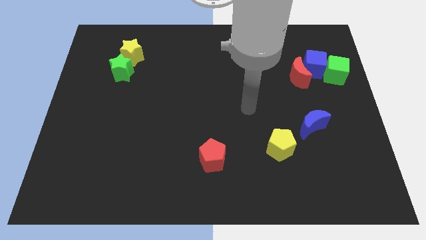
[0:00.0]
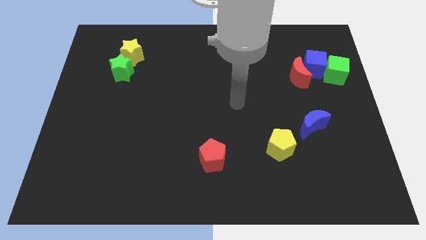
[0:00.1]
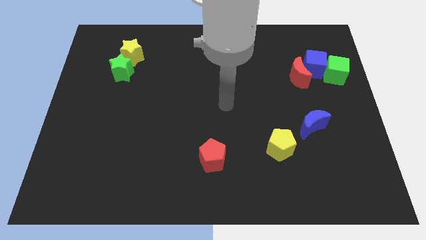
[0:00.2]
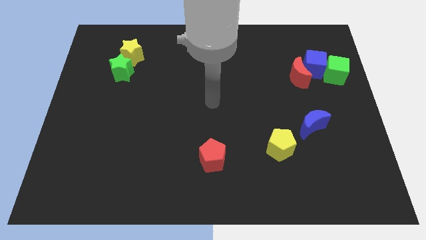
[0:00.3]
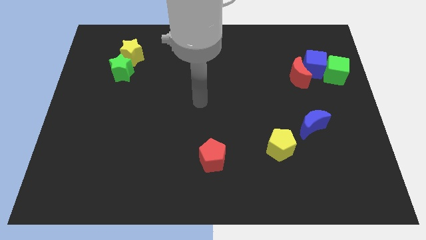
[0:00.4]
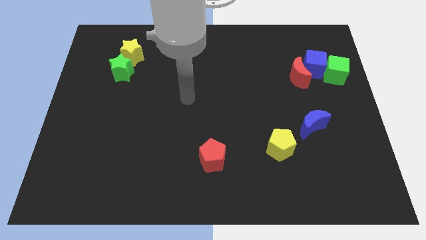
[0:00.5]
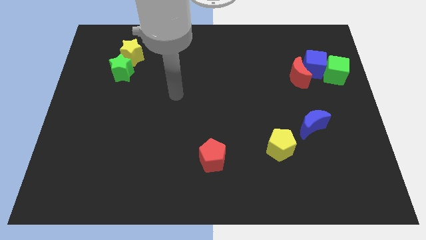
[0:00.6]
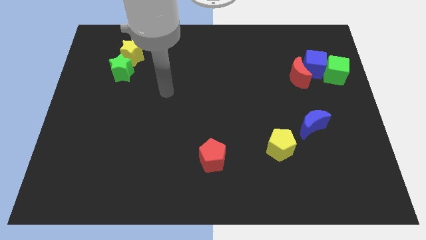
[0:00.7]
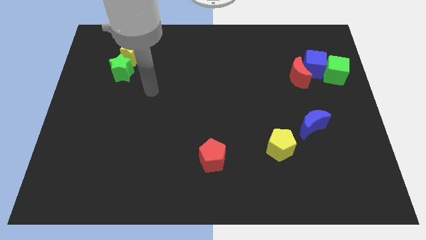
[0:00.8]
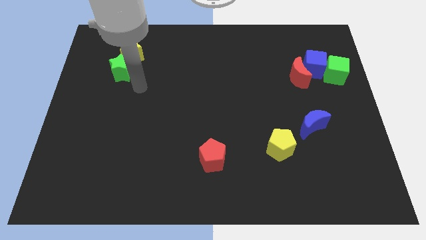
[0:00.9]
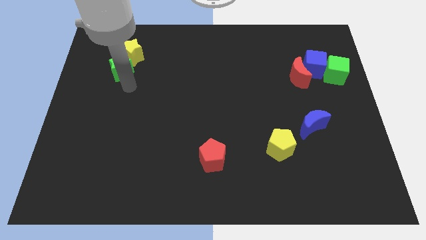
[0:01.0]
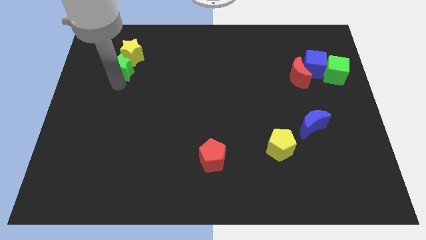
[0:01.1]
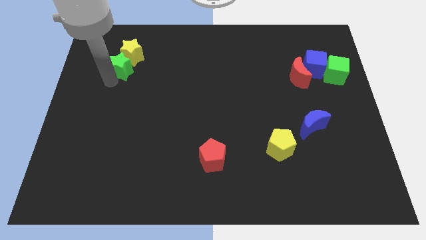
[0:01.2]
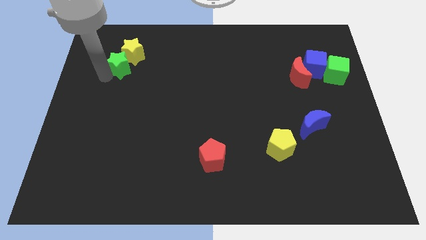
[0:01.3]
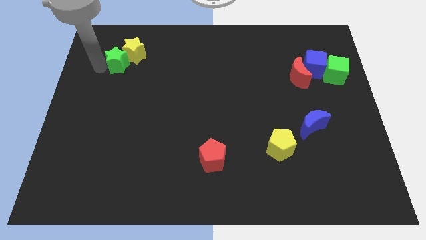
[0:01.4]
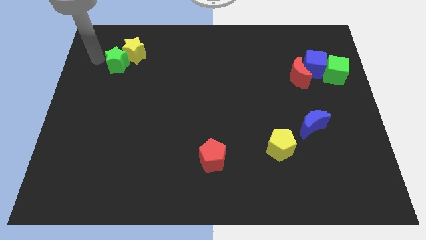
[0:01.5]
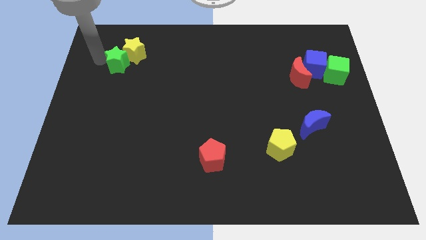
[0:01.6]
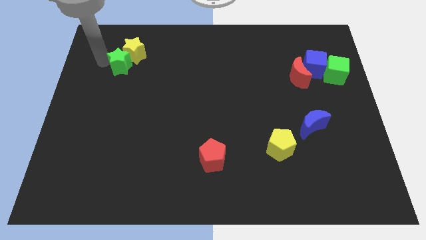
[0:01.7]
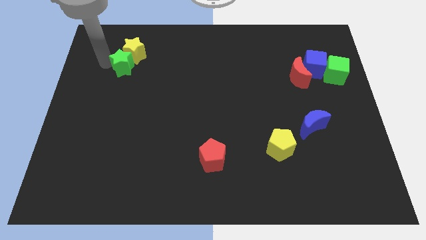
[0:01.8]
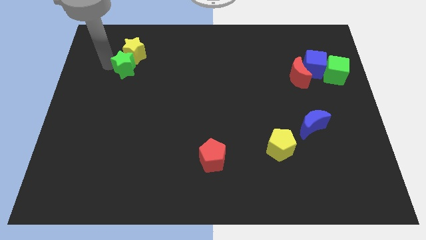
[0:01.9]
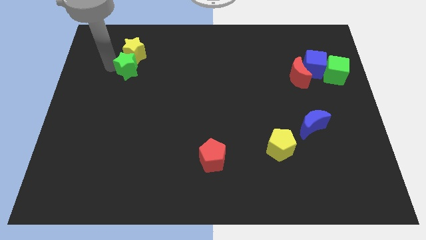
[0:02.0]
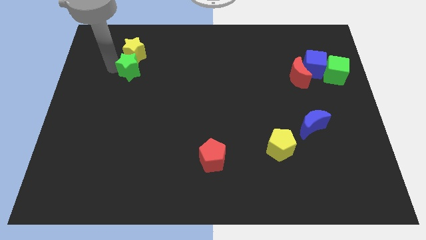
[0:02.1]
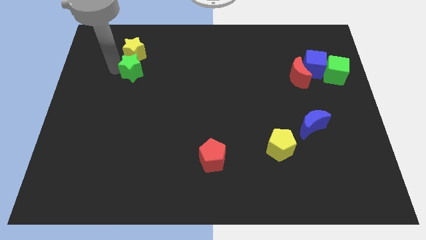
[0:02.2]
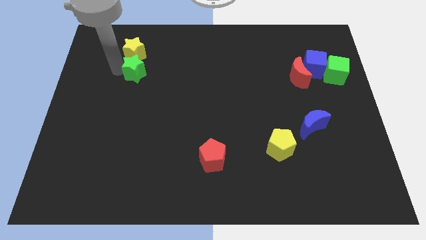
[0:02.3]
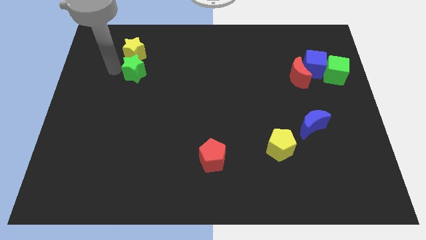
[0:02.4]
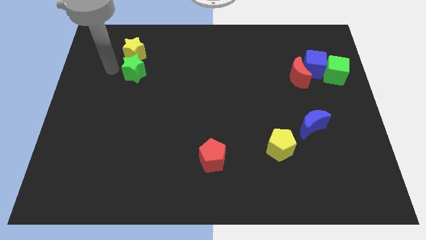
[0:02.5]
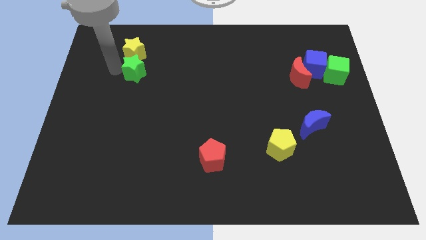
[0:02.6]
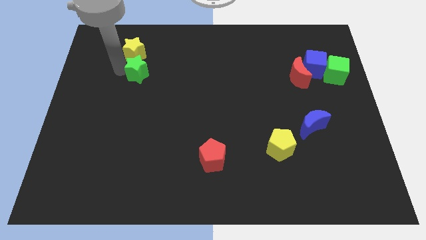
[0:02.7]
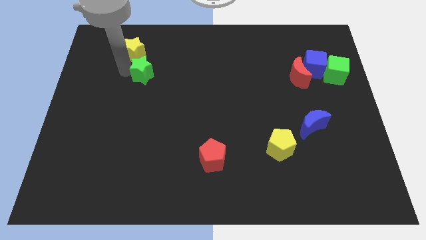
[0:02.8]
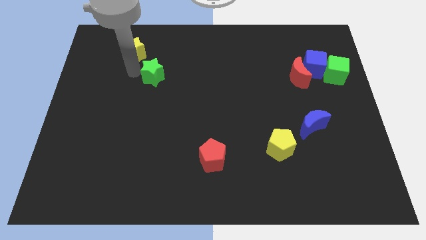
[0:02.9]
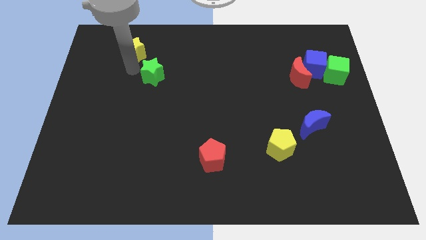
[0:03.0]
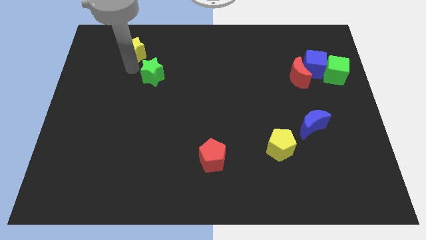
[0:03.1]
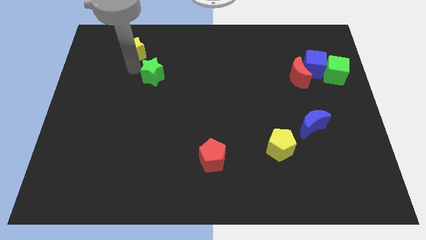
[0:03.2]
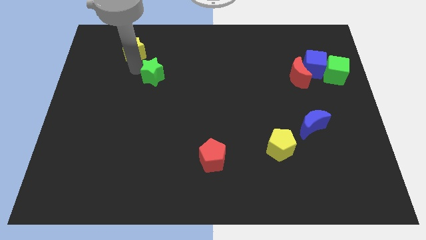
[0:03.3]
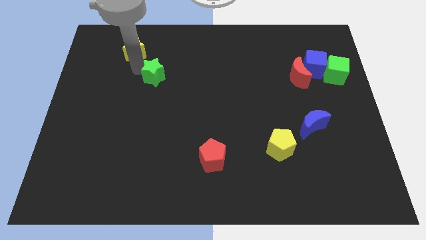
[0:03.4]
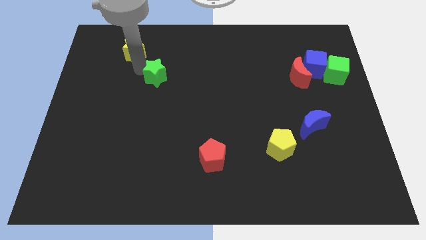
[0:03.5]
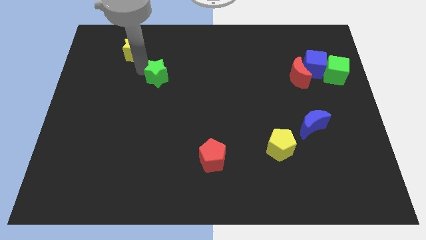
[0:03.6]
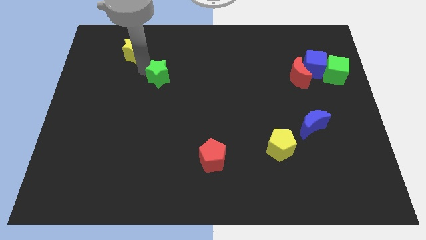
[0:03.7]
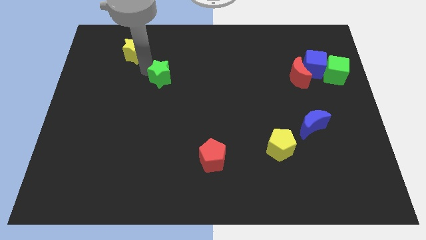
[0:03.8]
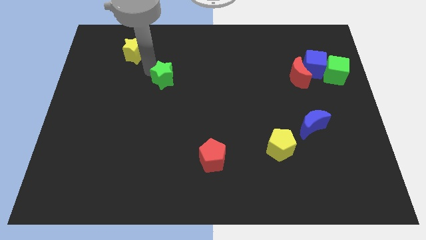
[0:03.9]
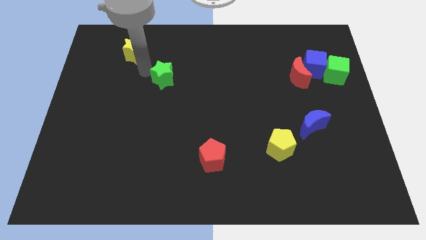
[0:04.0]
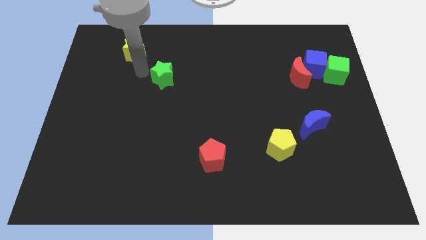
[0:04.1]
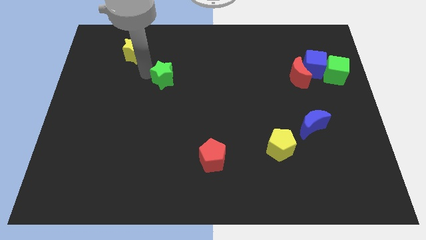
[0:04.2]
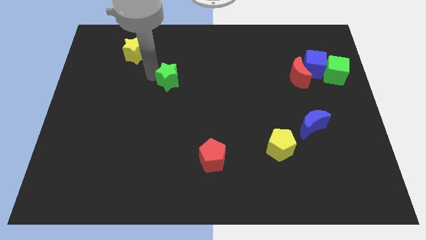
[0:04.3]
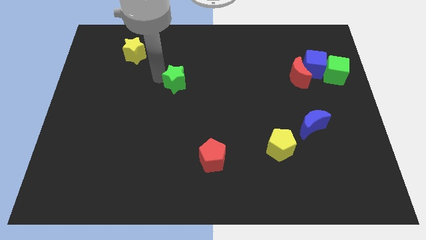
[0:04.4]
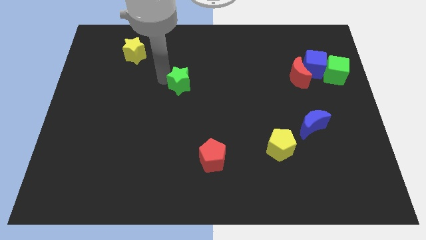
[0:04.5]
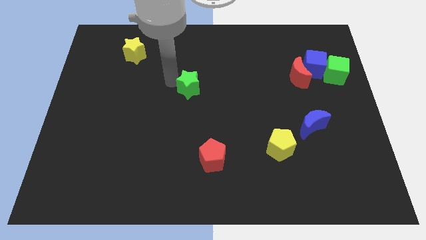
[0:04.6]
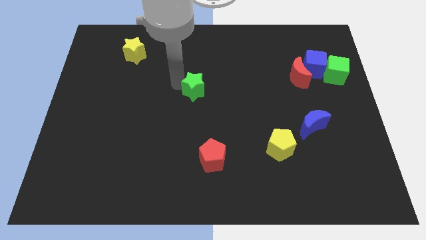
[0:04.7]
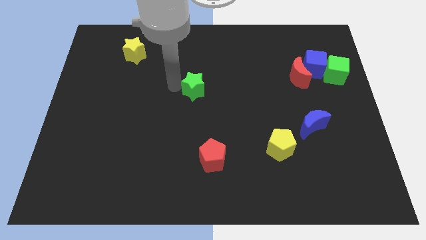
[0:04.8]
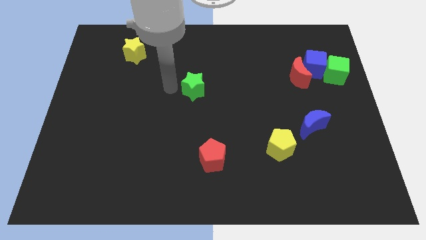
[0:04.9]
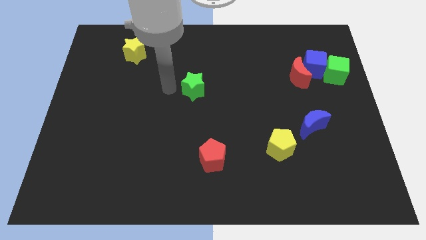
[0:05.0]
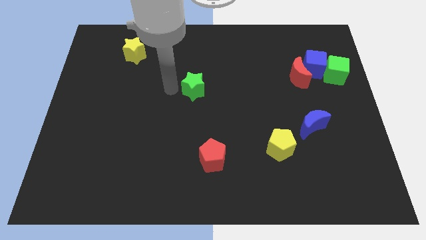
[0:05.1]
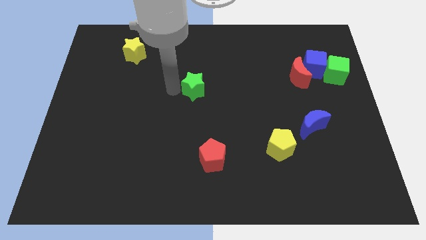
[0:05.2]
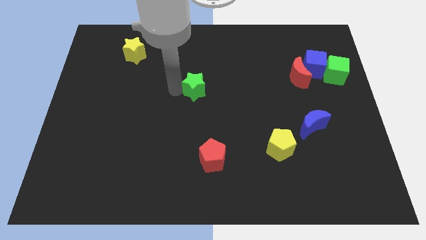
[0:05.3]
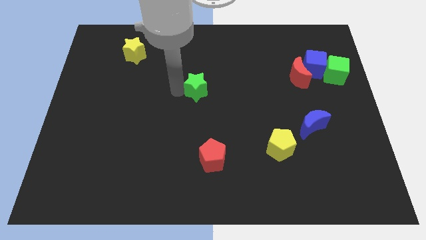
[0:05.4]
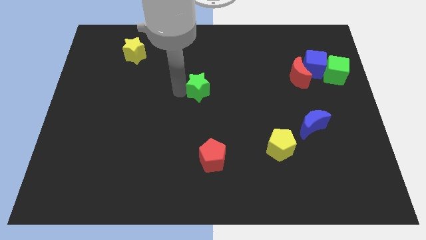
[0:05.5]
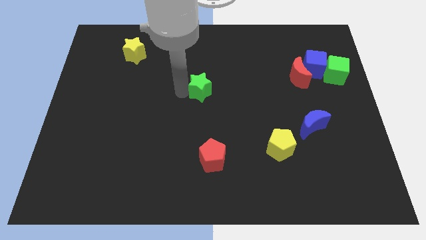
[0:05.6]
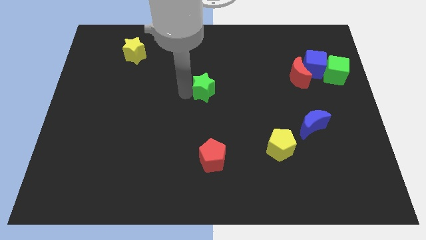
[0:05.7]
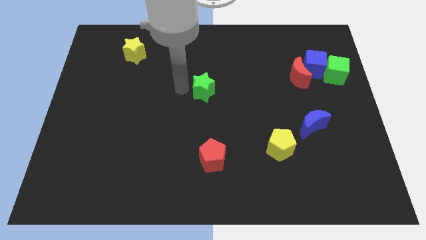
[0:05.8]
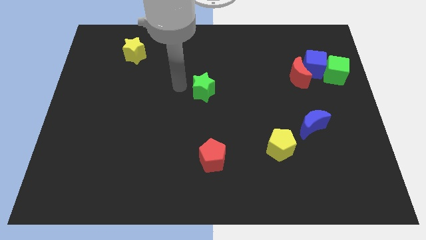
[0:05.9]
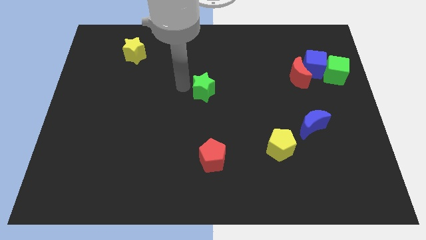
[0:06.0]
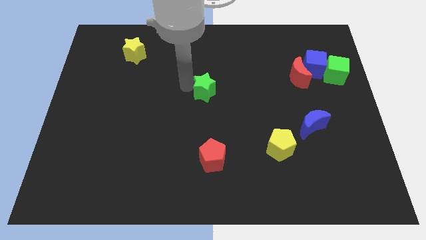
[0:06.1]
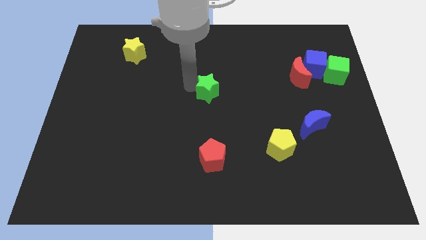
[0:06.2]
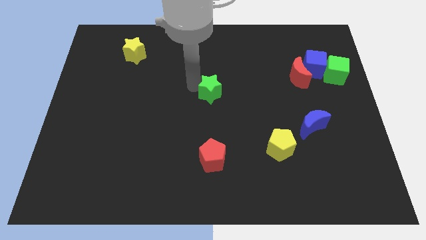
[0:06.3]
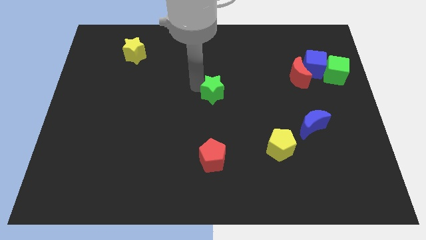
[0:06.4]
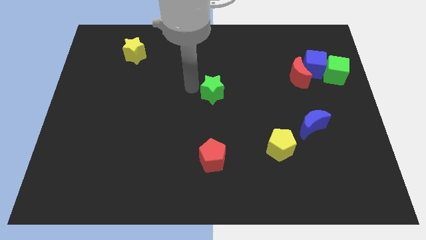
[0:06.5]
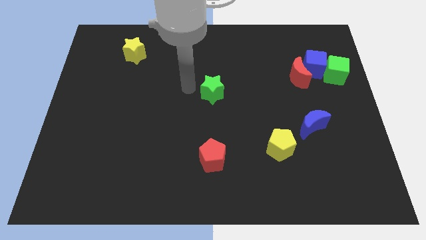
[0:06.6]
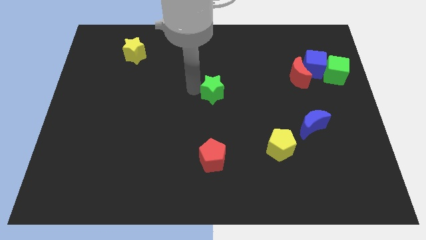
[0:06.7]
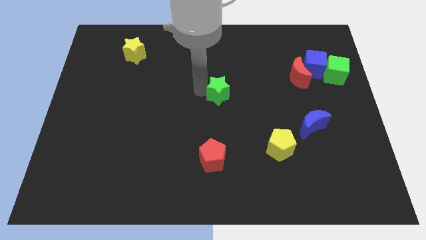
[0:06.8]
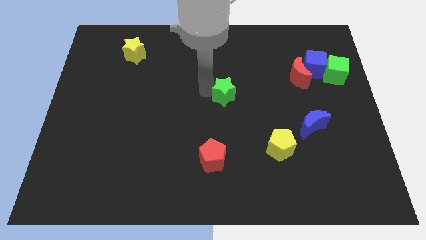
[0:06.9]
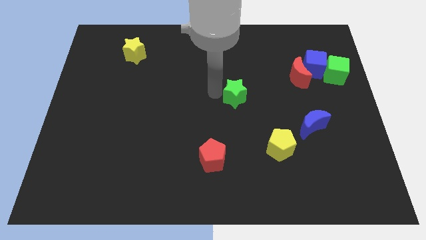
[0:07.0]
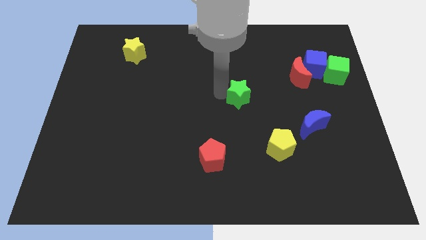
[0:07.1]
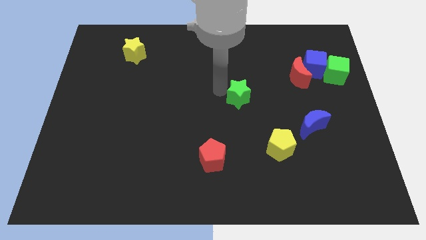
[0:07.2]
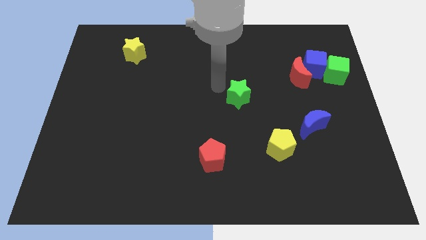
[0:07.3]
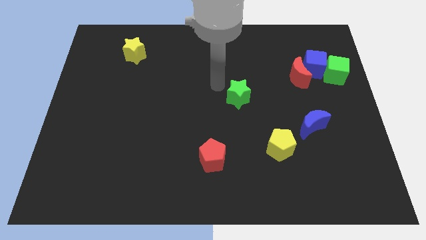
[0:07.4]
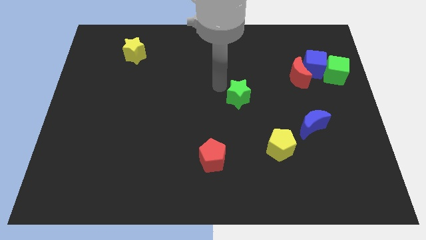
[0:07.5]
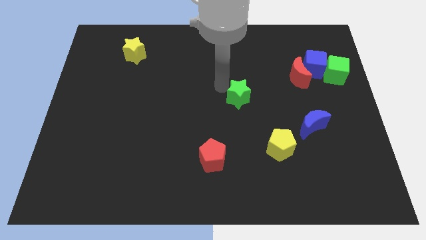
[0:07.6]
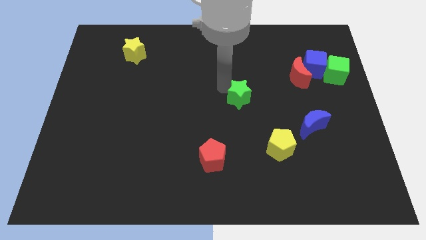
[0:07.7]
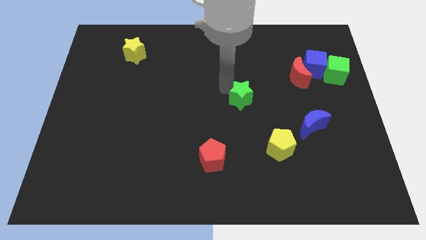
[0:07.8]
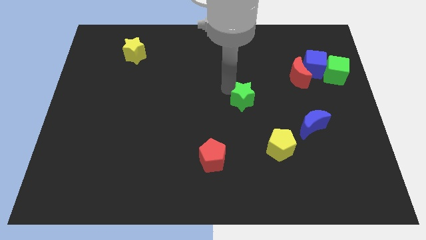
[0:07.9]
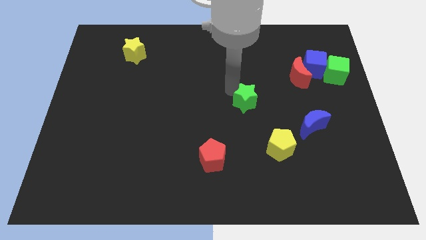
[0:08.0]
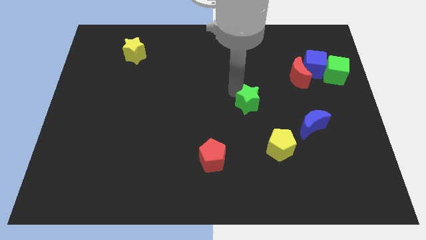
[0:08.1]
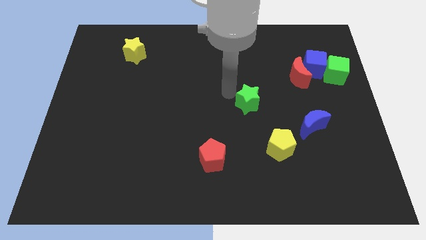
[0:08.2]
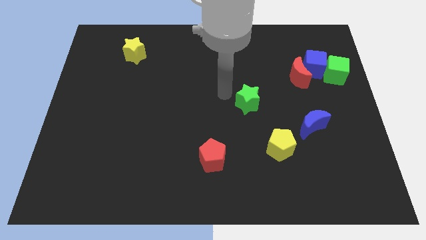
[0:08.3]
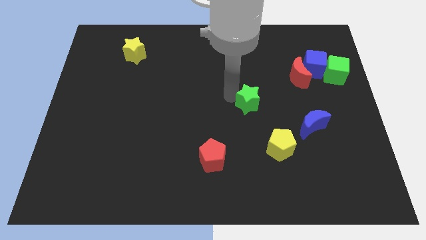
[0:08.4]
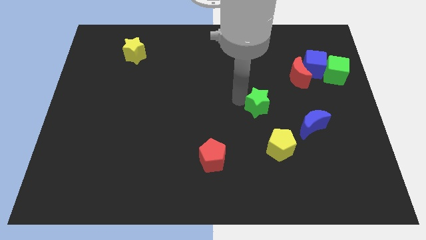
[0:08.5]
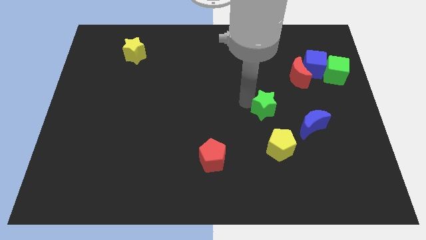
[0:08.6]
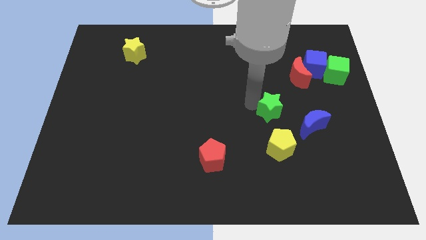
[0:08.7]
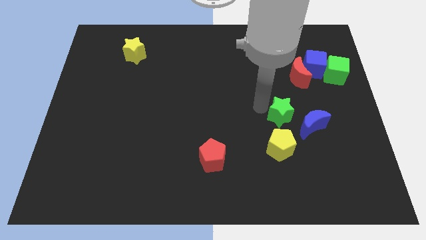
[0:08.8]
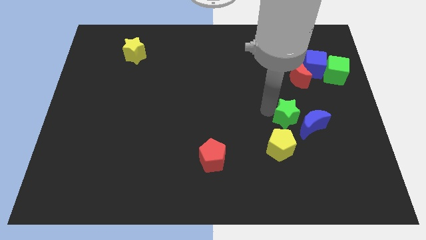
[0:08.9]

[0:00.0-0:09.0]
put the green star to the blue moon

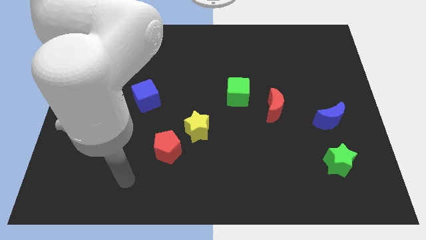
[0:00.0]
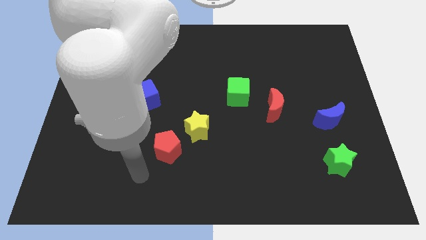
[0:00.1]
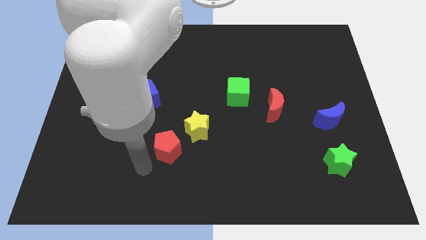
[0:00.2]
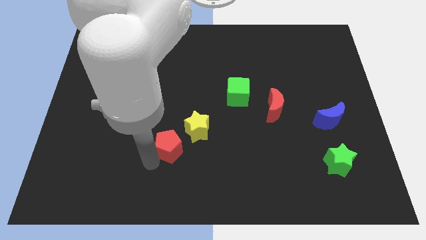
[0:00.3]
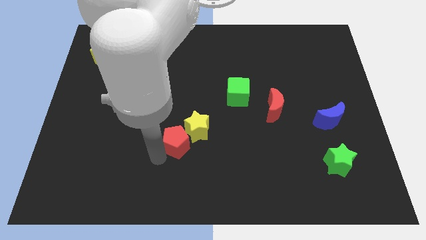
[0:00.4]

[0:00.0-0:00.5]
put the red pentagon towards the yellow star
